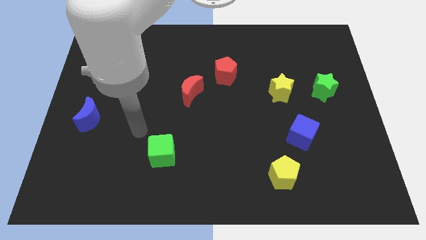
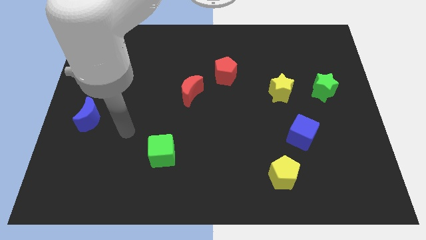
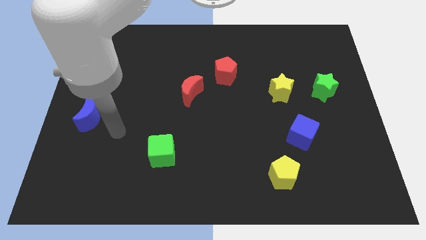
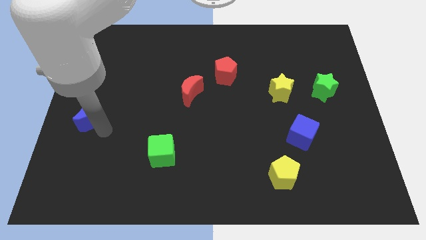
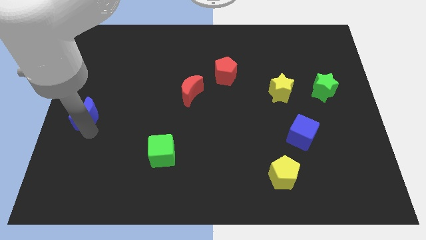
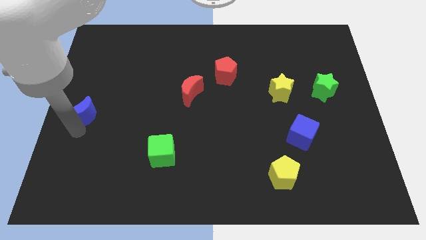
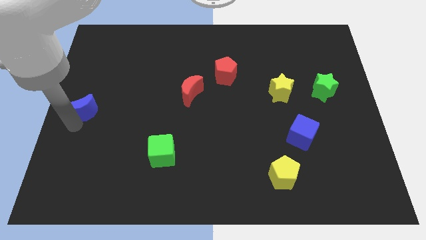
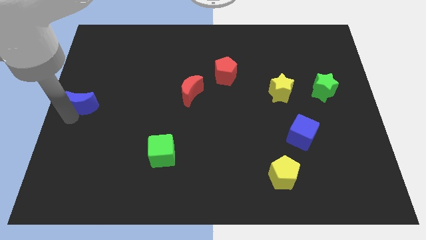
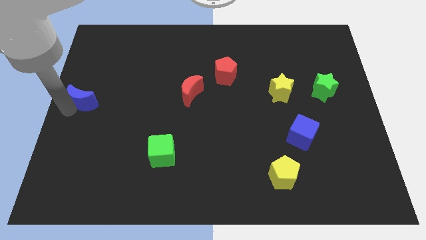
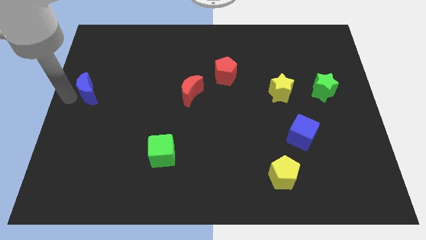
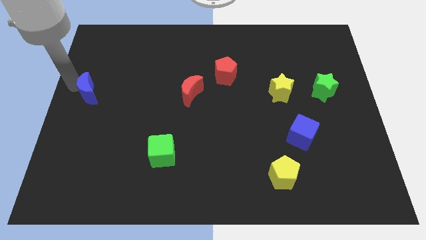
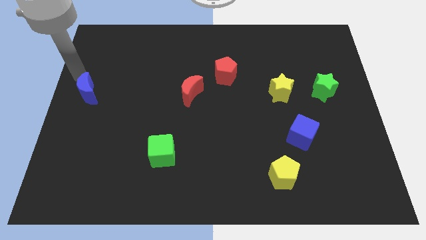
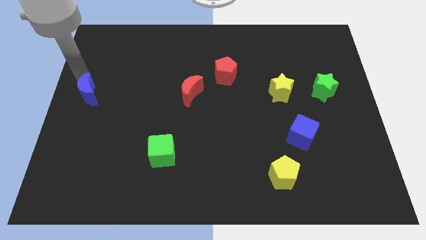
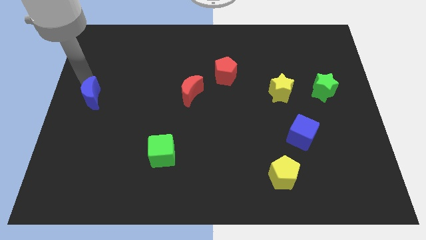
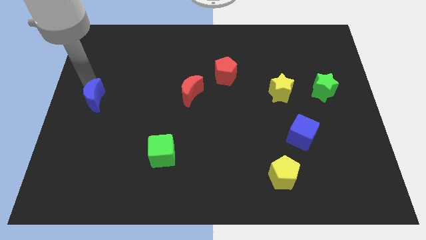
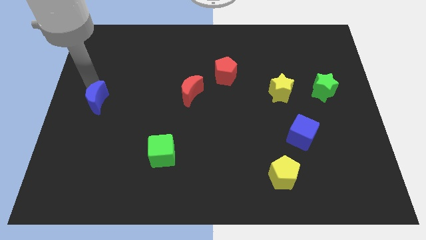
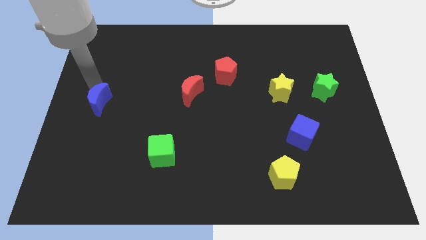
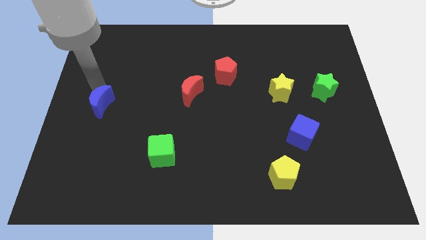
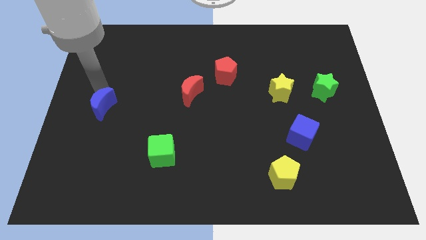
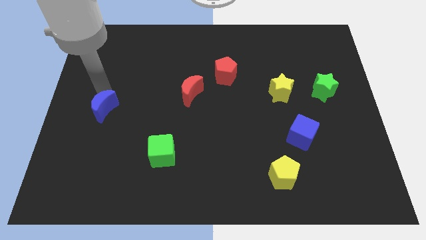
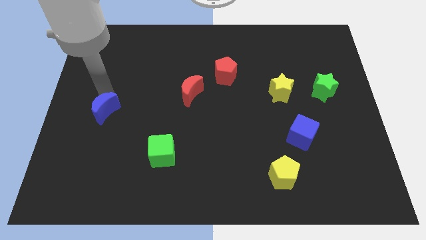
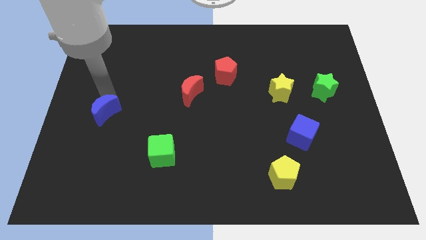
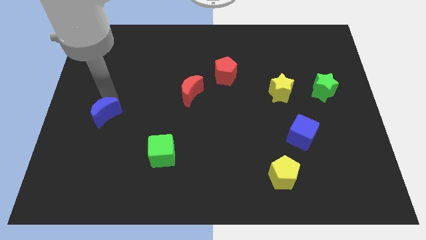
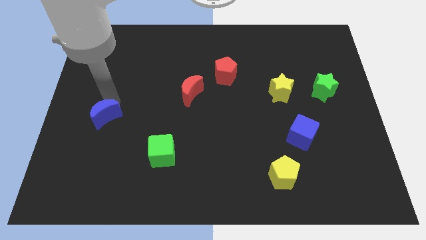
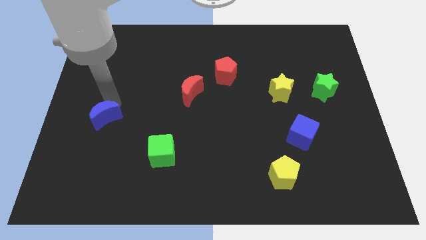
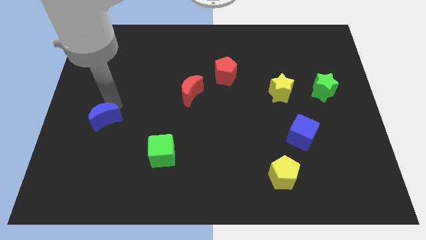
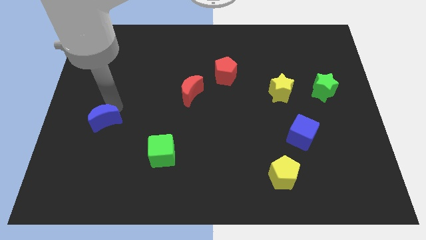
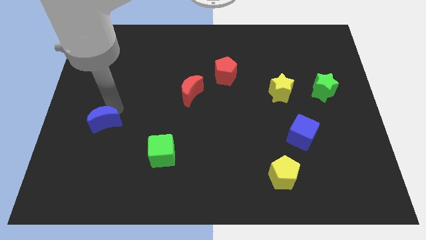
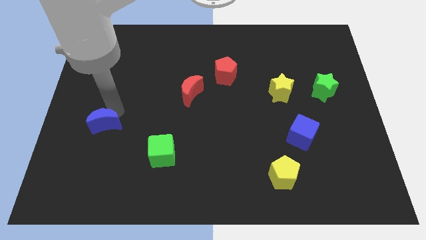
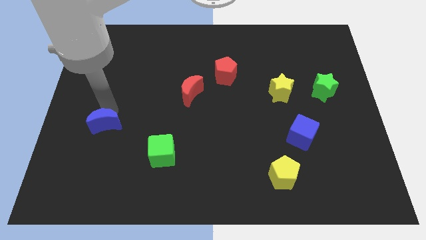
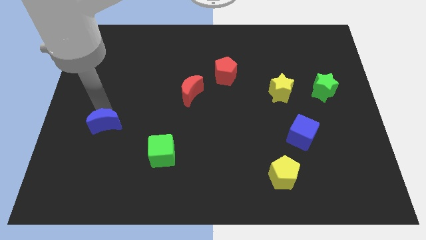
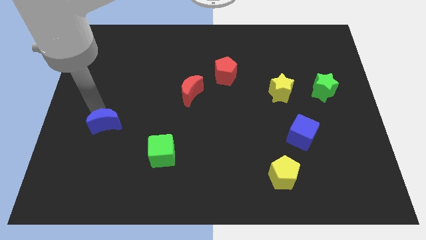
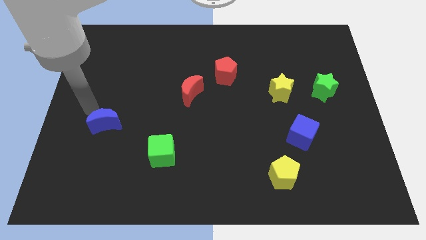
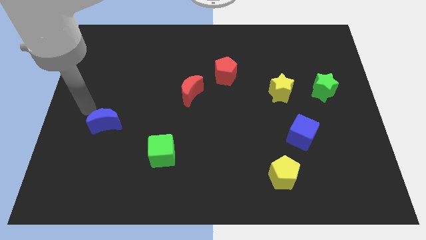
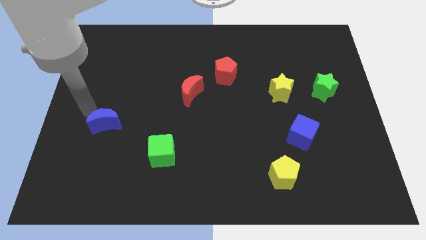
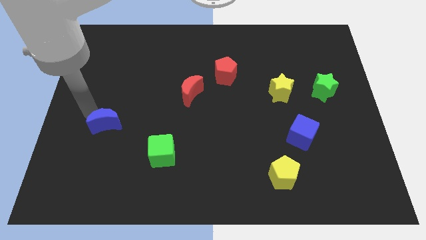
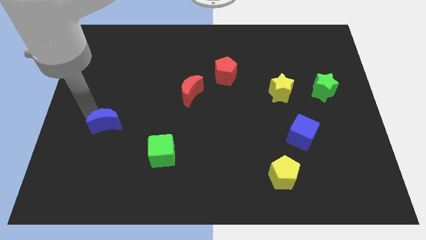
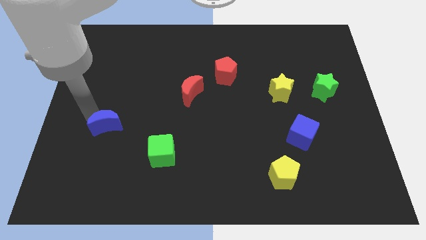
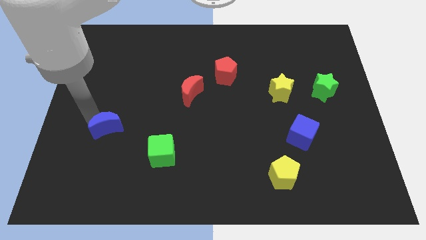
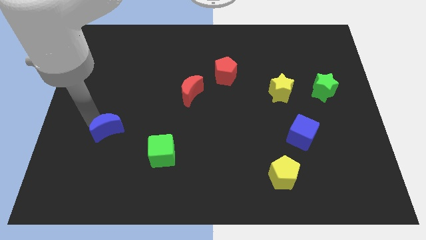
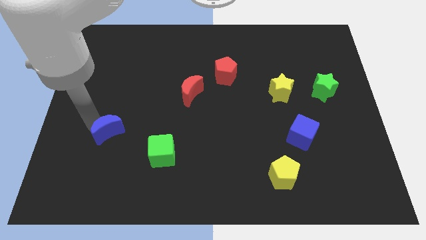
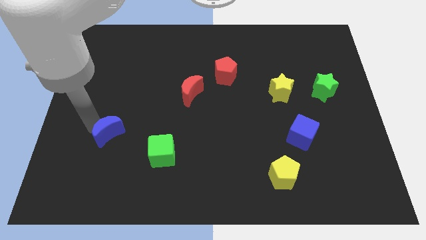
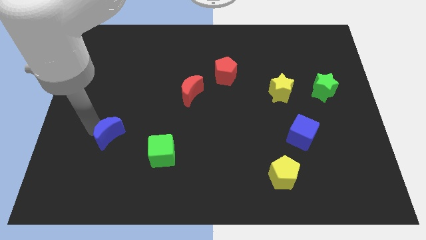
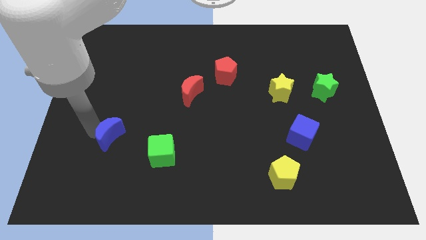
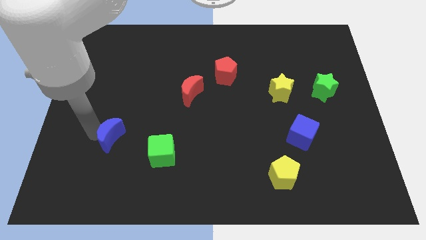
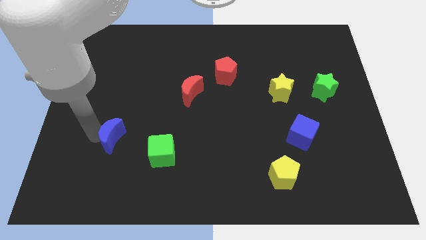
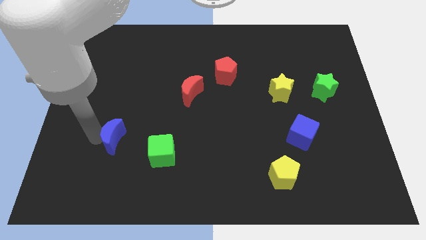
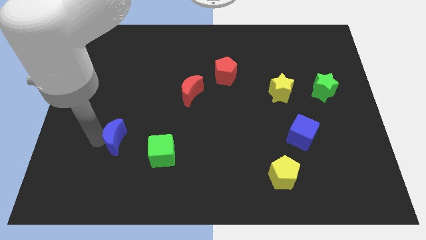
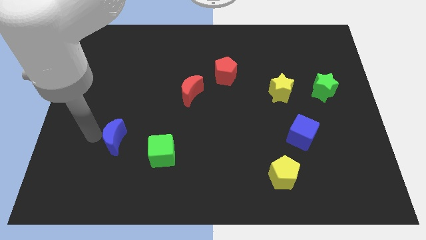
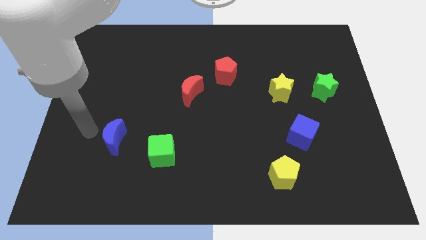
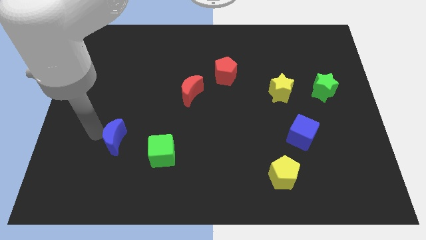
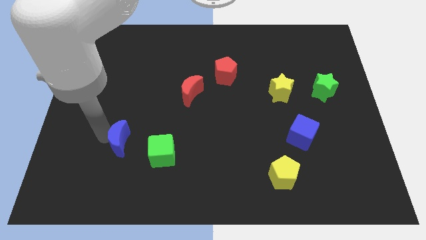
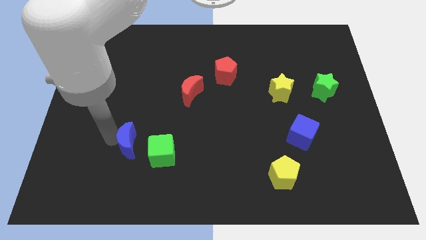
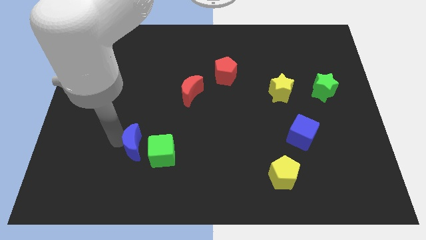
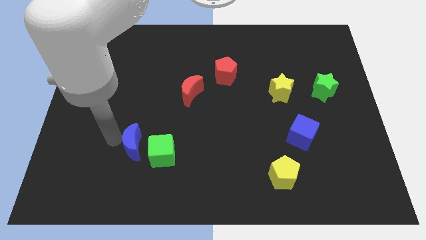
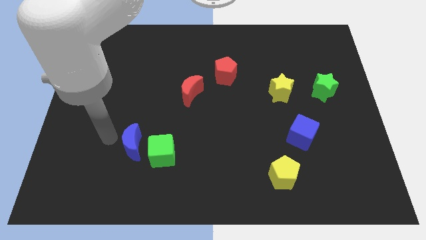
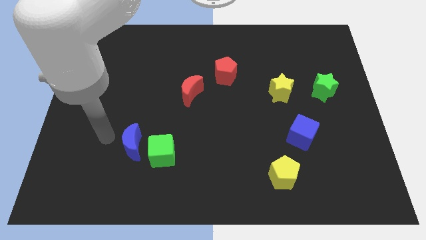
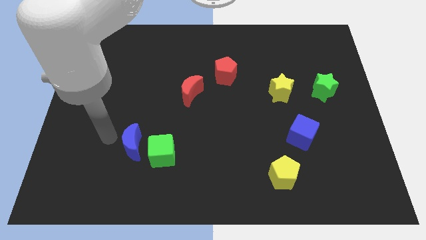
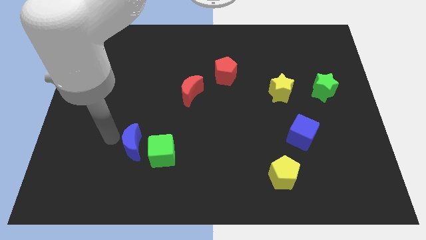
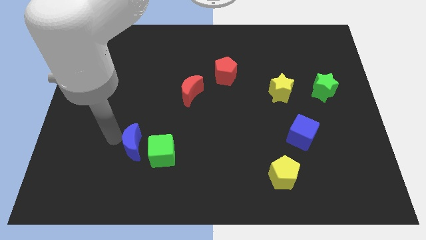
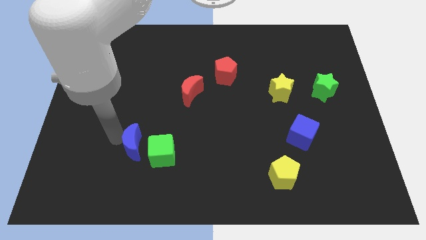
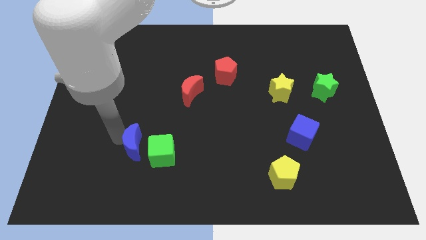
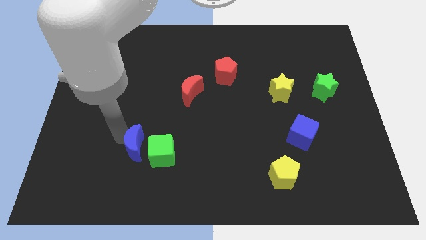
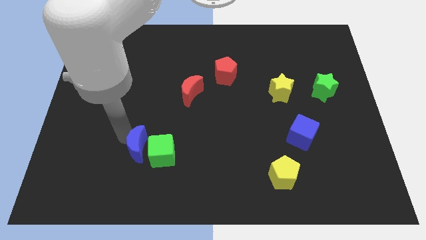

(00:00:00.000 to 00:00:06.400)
slide the blue moon to the green cube
